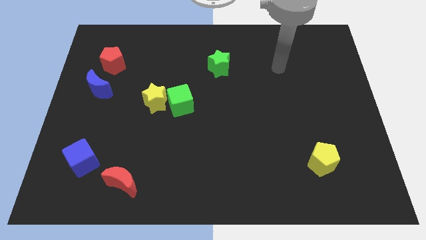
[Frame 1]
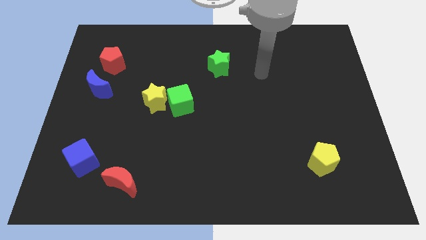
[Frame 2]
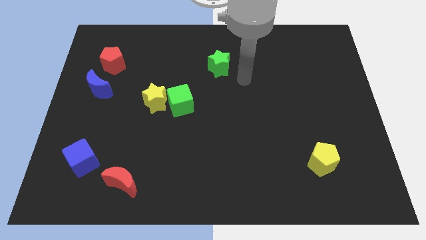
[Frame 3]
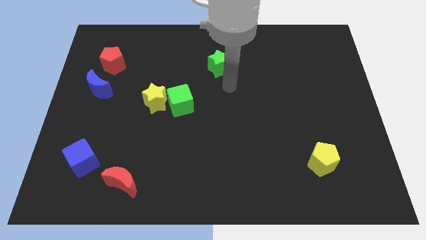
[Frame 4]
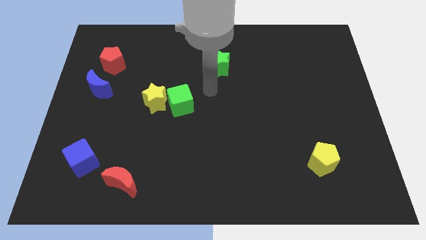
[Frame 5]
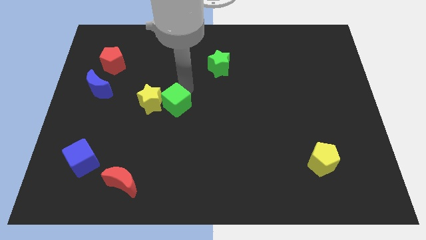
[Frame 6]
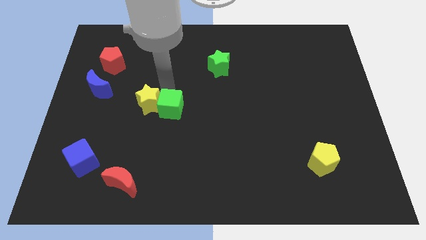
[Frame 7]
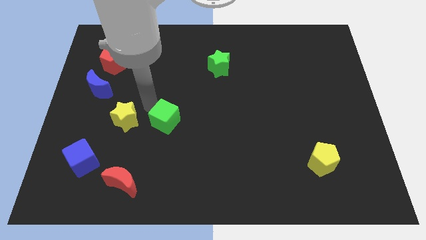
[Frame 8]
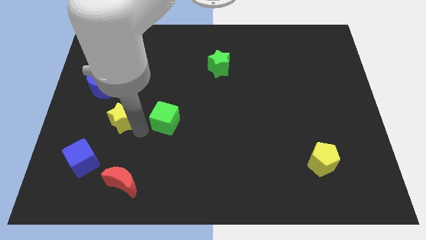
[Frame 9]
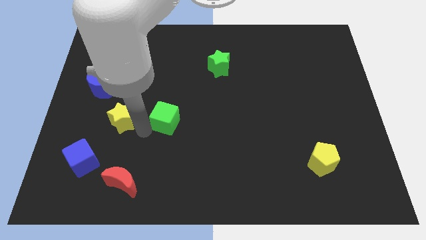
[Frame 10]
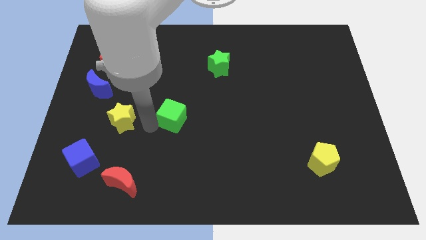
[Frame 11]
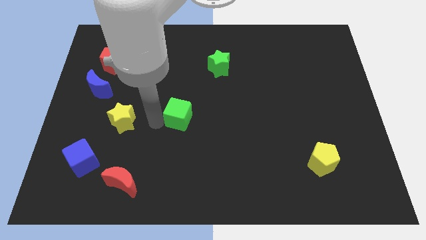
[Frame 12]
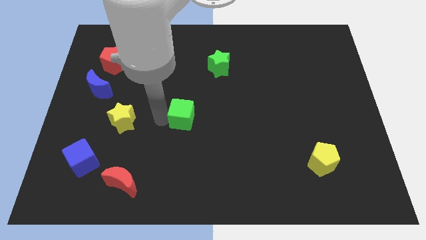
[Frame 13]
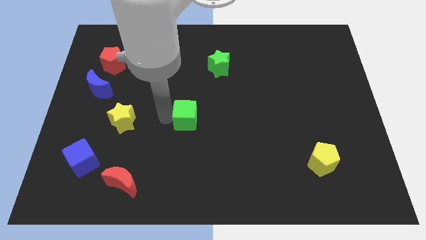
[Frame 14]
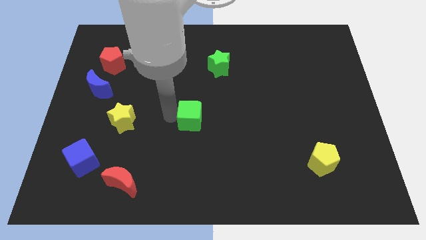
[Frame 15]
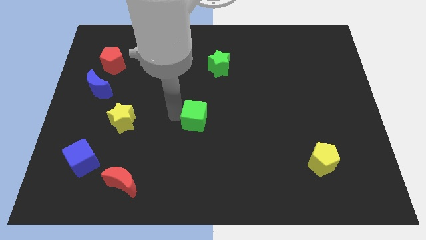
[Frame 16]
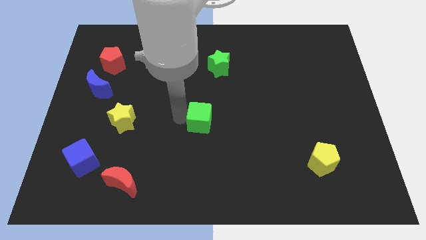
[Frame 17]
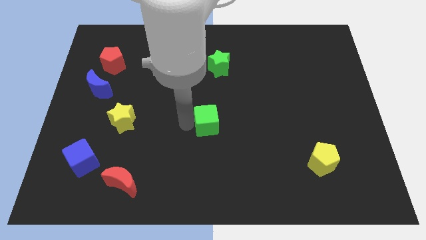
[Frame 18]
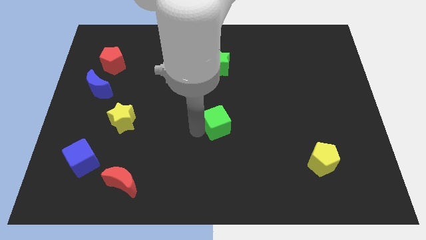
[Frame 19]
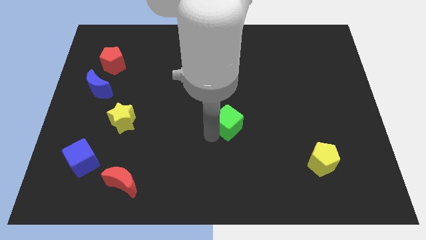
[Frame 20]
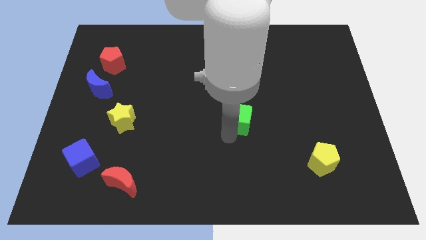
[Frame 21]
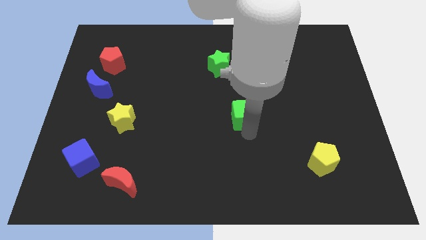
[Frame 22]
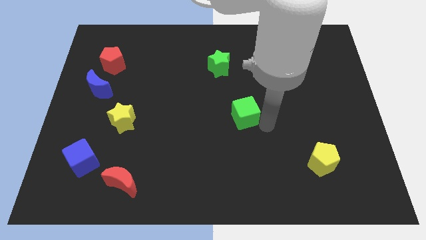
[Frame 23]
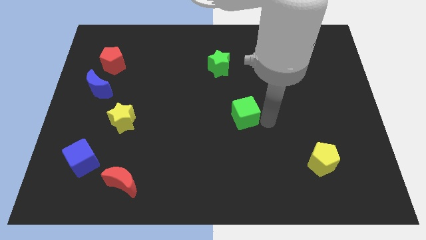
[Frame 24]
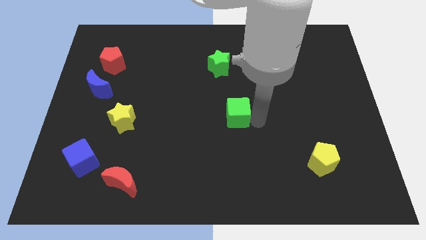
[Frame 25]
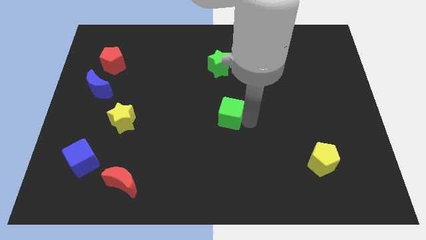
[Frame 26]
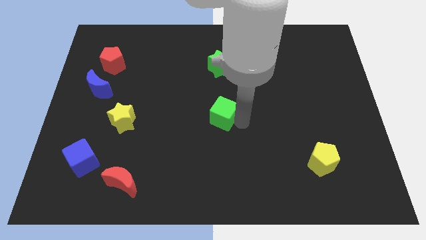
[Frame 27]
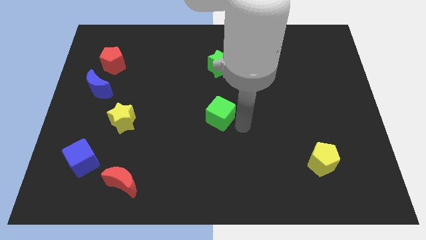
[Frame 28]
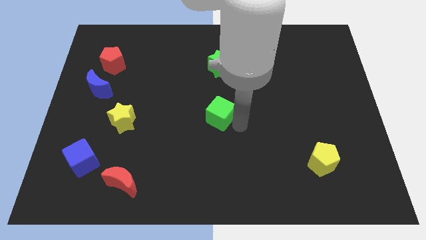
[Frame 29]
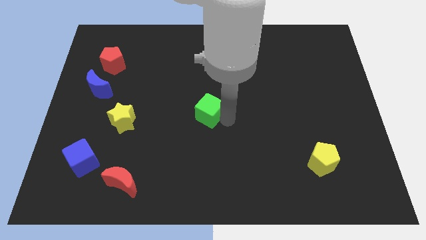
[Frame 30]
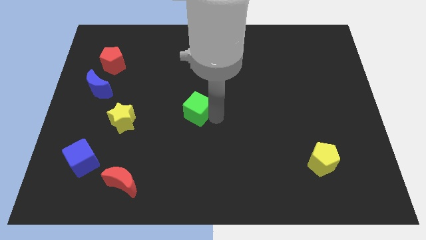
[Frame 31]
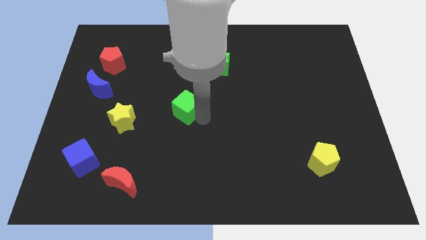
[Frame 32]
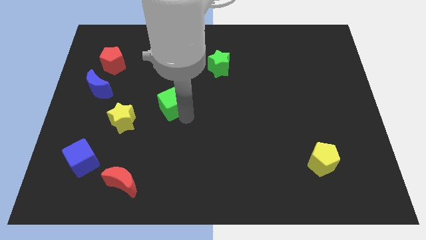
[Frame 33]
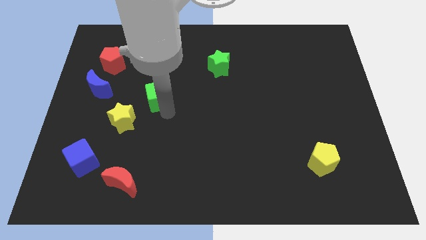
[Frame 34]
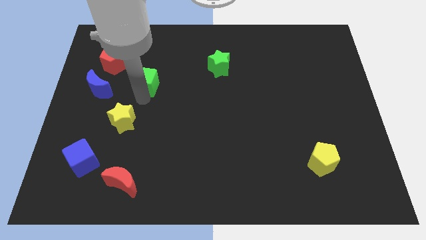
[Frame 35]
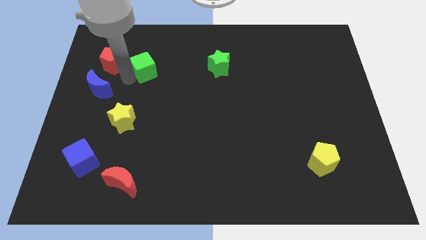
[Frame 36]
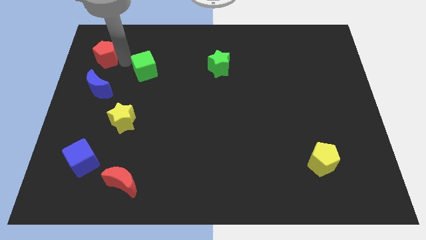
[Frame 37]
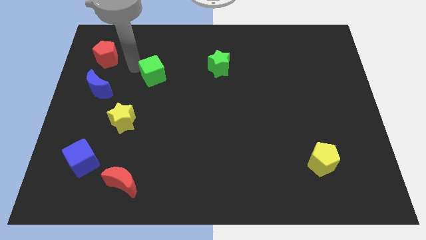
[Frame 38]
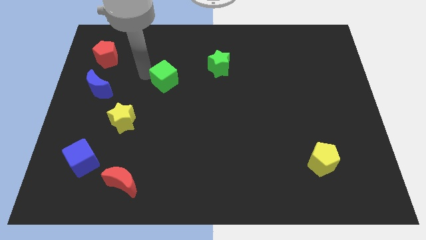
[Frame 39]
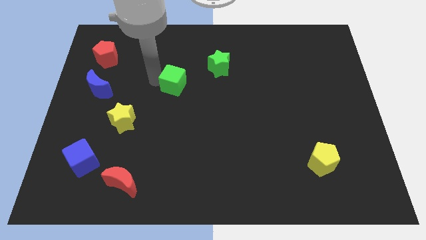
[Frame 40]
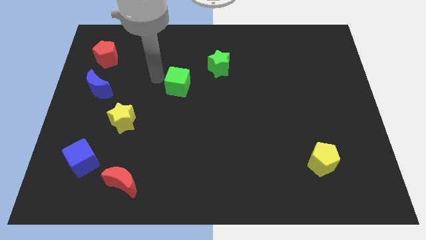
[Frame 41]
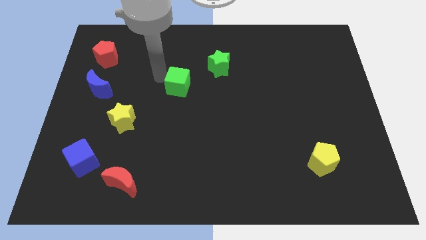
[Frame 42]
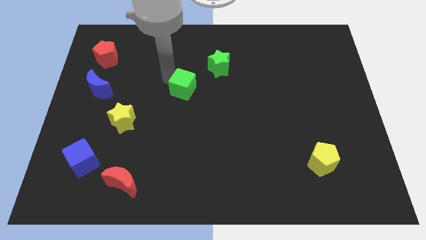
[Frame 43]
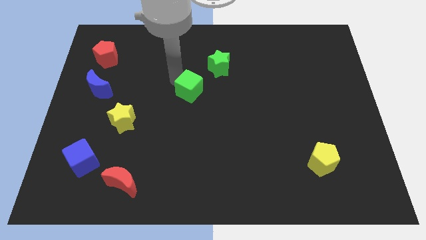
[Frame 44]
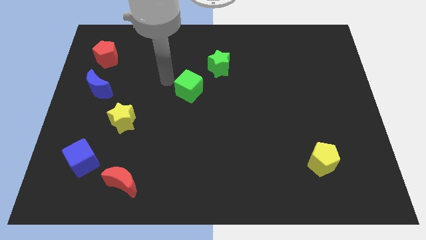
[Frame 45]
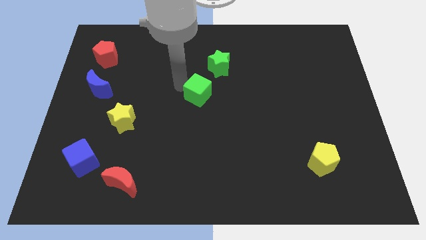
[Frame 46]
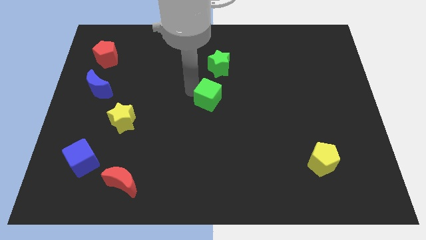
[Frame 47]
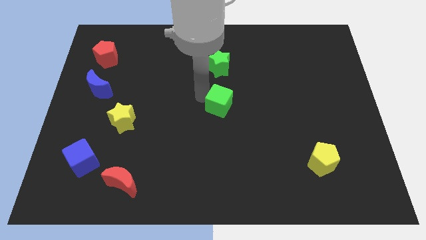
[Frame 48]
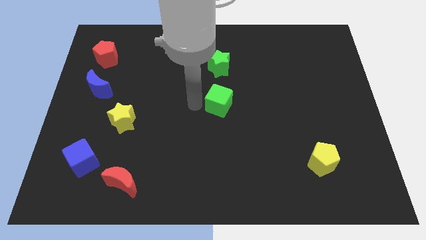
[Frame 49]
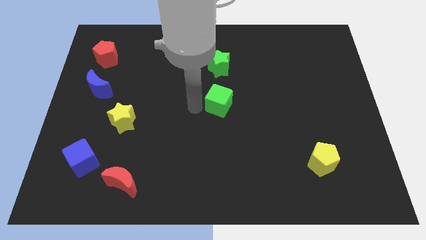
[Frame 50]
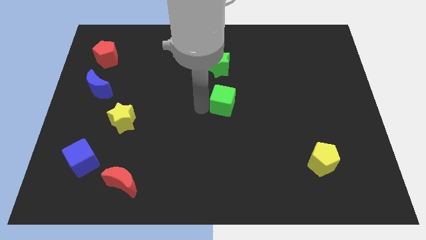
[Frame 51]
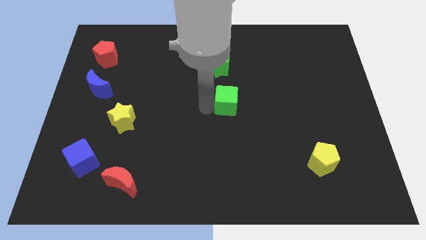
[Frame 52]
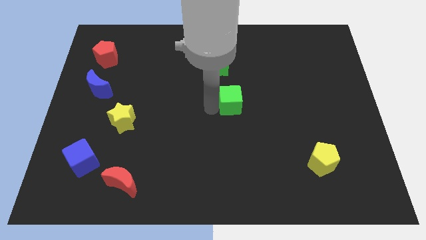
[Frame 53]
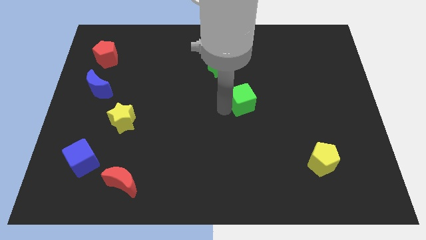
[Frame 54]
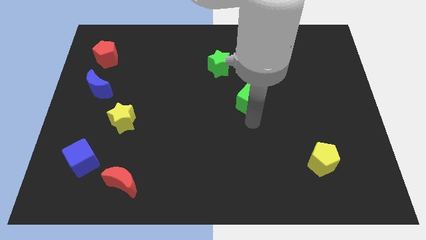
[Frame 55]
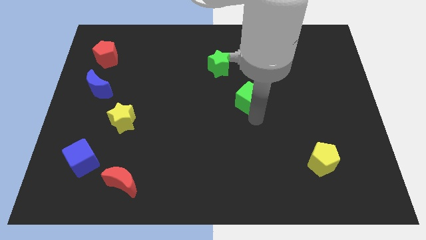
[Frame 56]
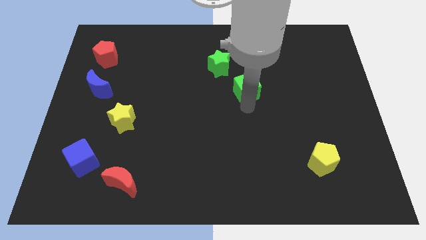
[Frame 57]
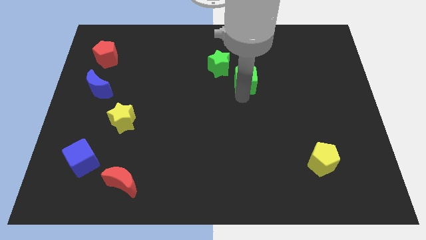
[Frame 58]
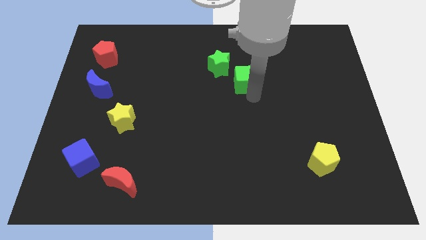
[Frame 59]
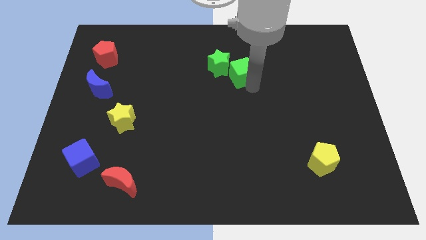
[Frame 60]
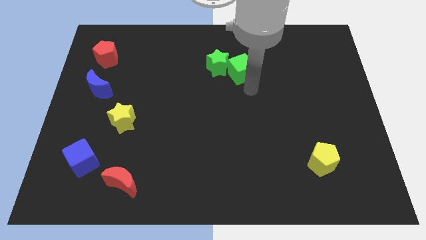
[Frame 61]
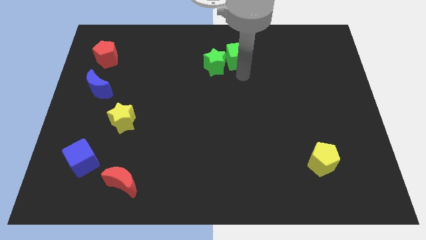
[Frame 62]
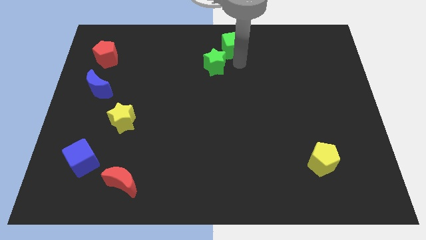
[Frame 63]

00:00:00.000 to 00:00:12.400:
put the green cube to the towards your base

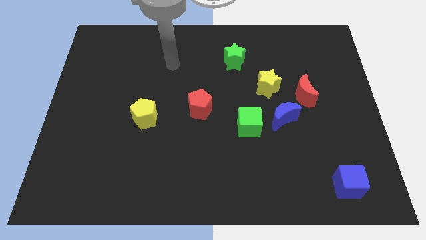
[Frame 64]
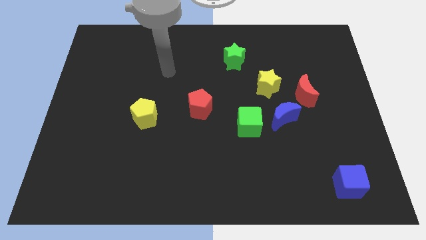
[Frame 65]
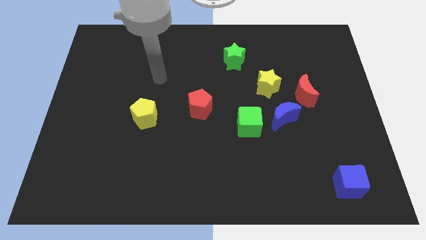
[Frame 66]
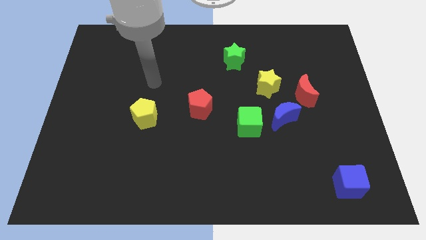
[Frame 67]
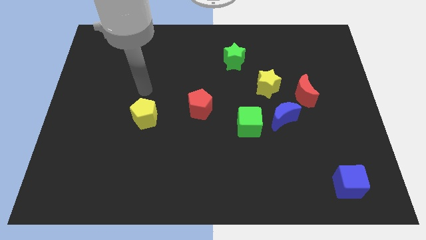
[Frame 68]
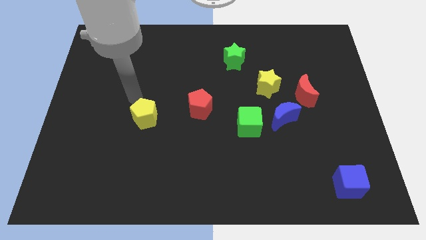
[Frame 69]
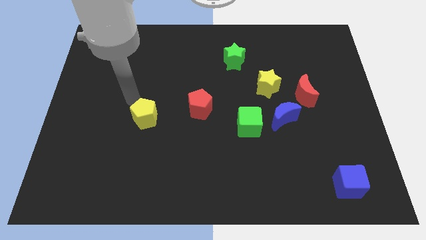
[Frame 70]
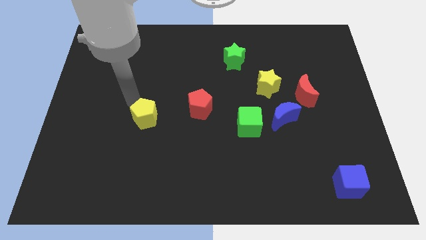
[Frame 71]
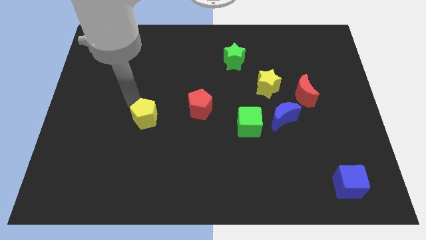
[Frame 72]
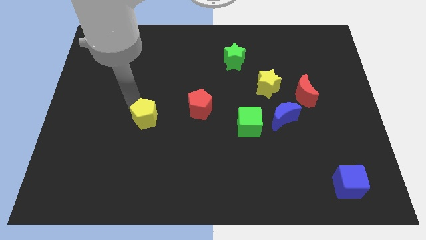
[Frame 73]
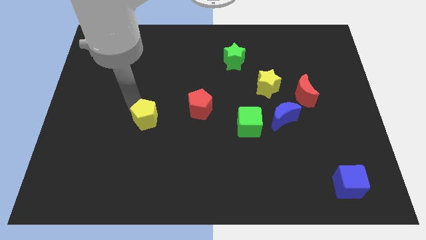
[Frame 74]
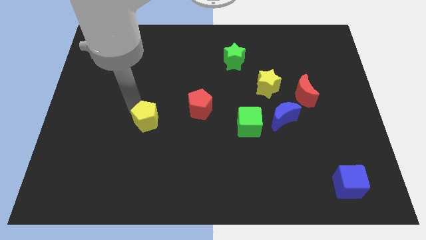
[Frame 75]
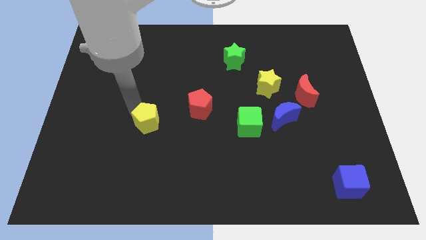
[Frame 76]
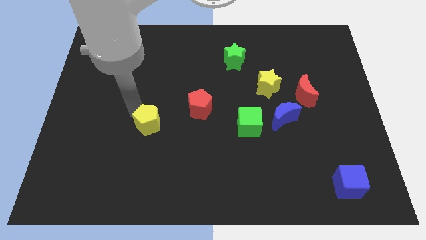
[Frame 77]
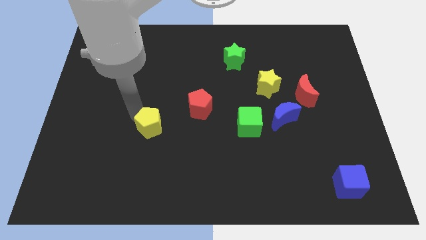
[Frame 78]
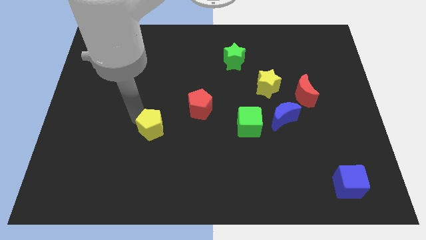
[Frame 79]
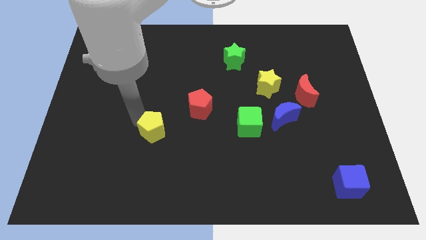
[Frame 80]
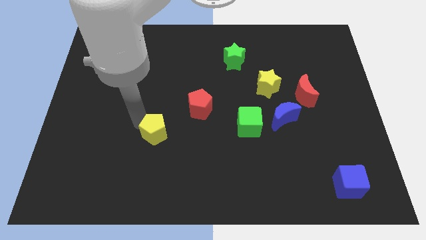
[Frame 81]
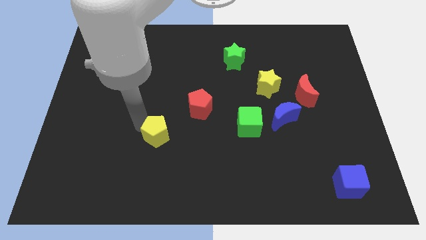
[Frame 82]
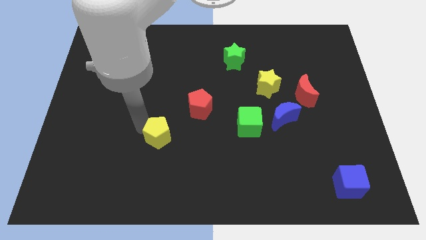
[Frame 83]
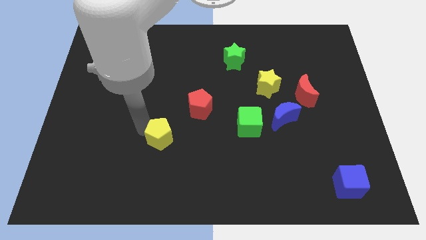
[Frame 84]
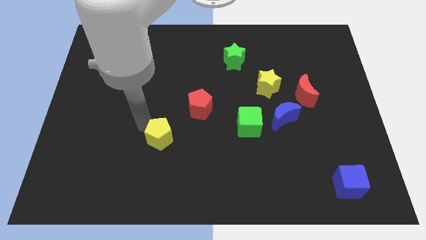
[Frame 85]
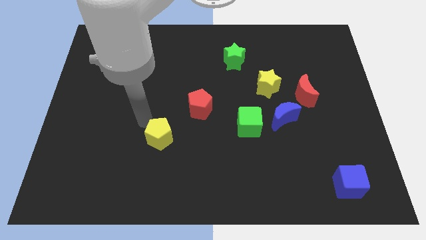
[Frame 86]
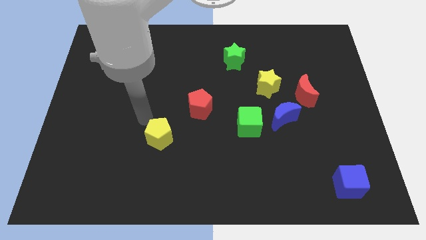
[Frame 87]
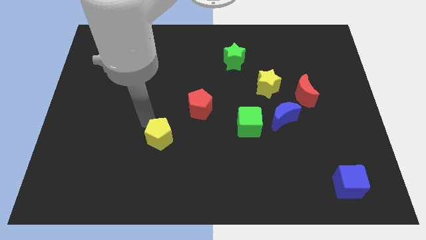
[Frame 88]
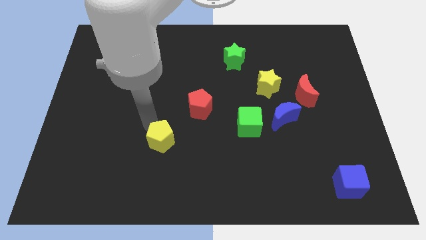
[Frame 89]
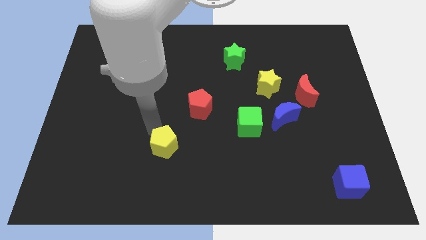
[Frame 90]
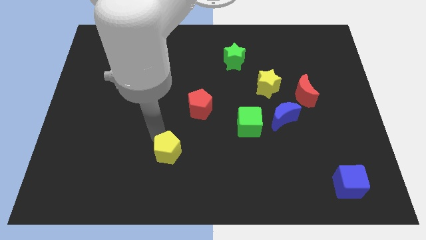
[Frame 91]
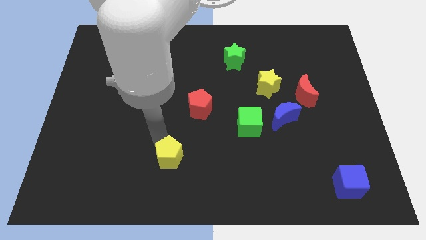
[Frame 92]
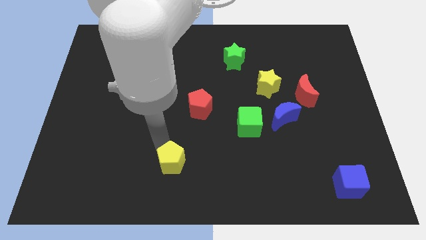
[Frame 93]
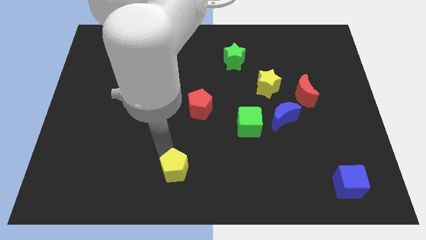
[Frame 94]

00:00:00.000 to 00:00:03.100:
slide the yellow pentagon to the bottom
